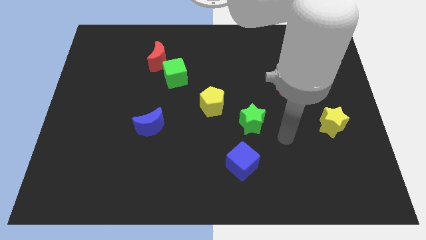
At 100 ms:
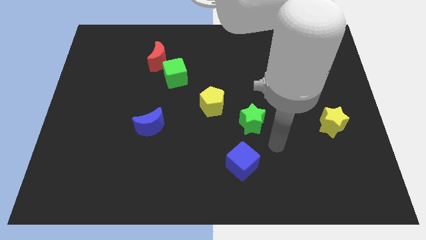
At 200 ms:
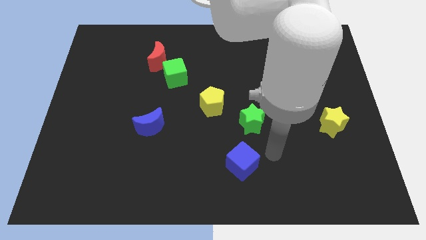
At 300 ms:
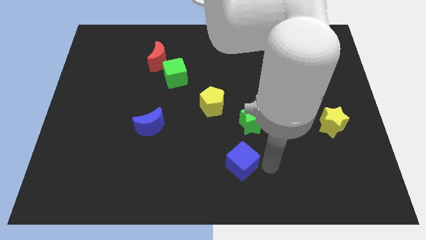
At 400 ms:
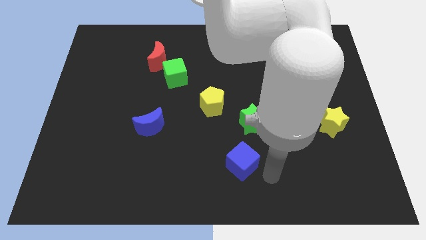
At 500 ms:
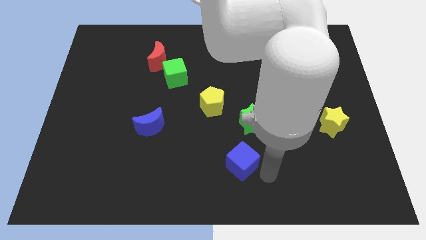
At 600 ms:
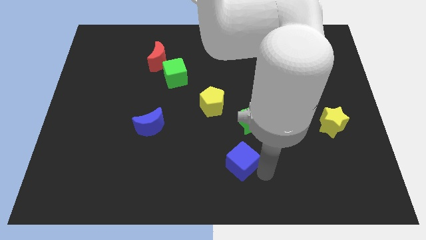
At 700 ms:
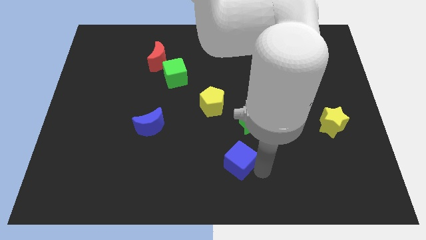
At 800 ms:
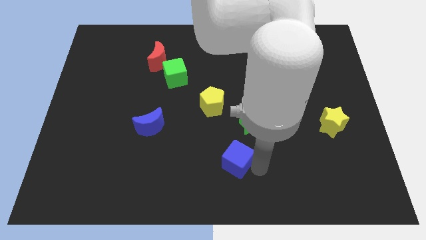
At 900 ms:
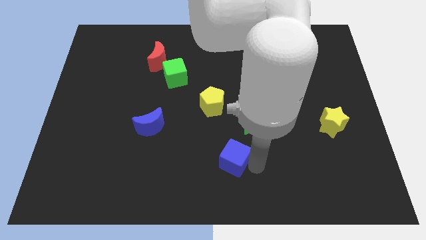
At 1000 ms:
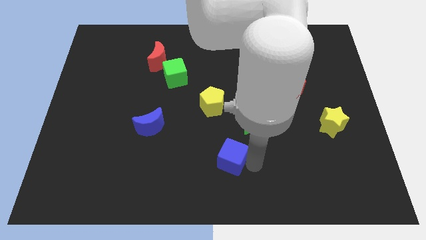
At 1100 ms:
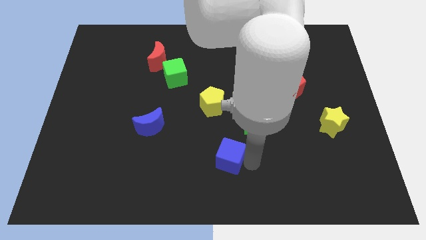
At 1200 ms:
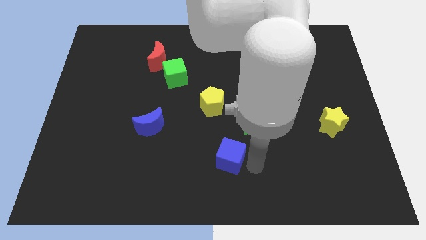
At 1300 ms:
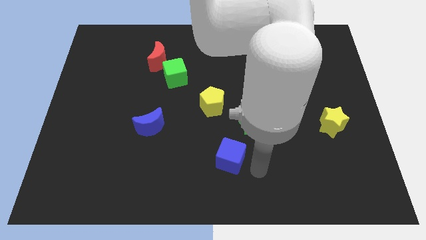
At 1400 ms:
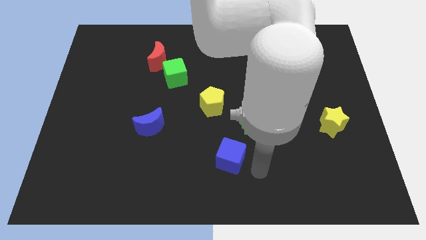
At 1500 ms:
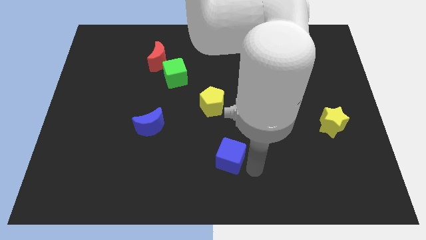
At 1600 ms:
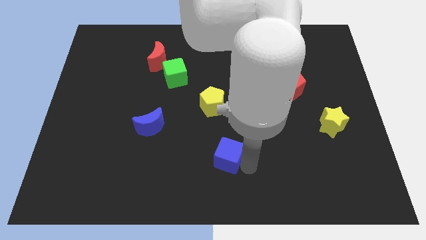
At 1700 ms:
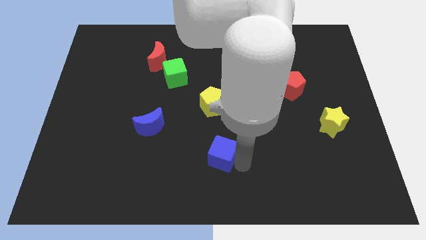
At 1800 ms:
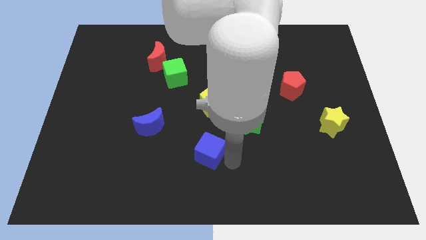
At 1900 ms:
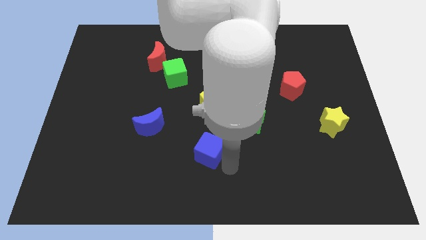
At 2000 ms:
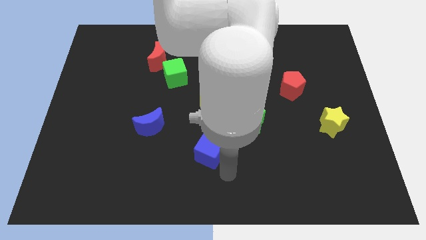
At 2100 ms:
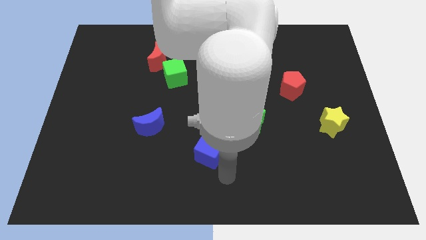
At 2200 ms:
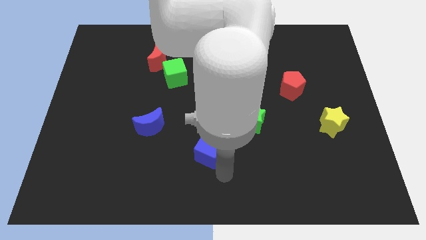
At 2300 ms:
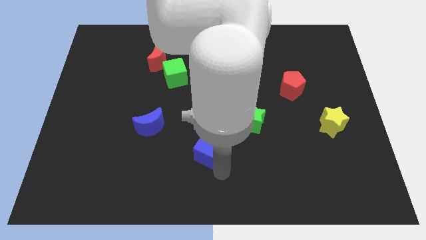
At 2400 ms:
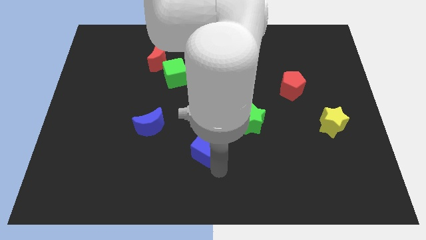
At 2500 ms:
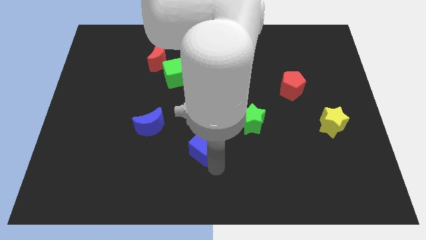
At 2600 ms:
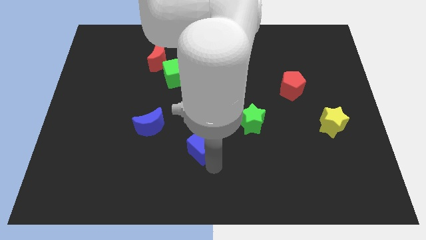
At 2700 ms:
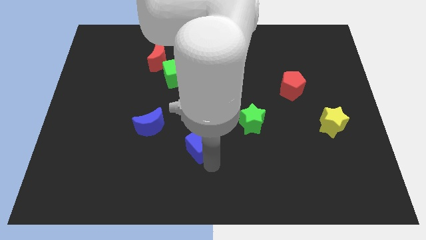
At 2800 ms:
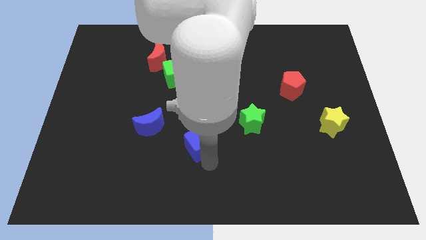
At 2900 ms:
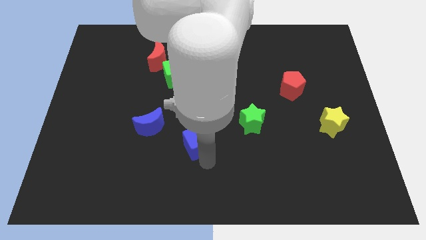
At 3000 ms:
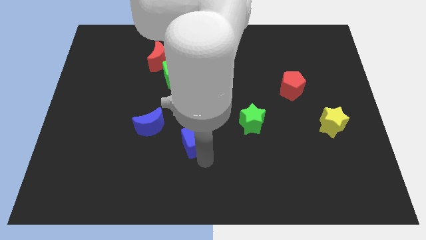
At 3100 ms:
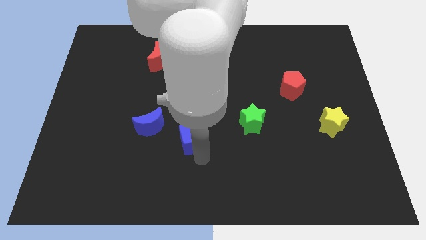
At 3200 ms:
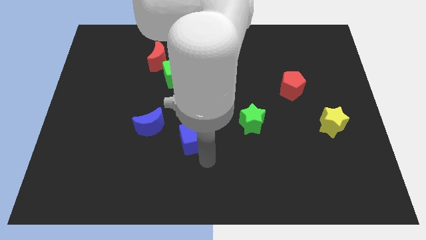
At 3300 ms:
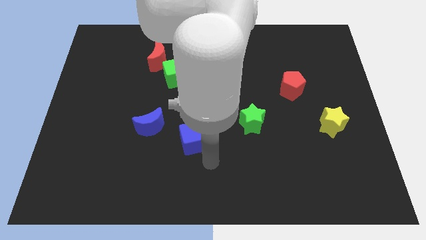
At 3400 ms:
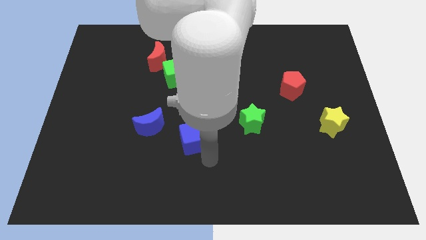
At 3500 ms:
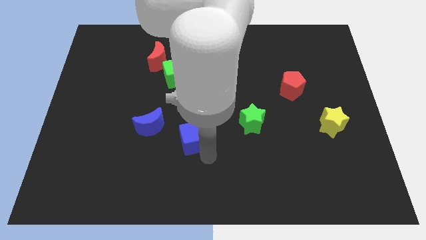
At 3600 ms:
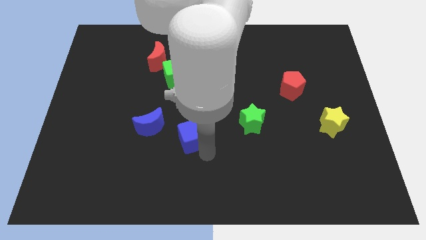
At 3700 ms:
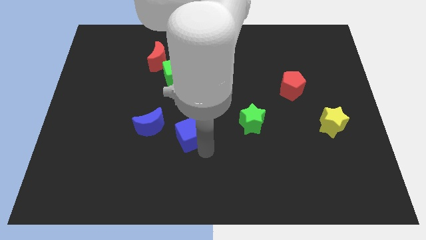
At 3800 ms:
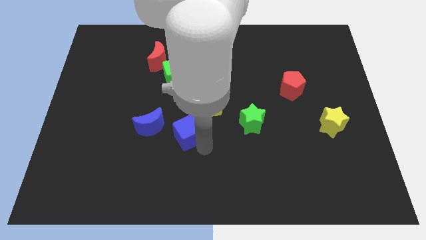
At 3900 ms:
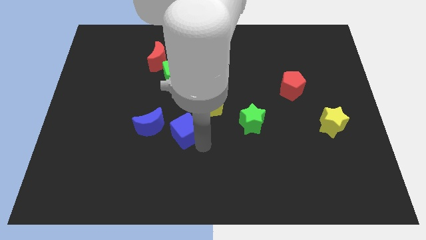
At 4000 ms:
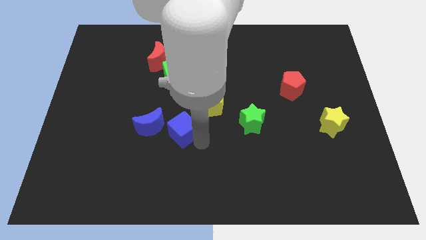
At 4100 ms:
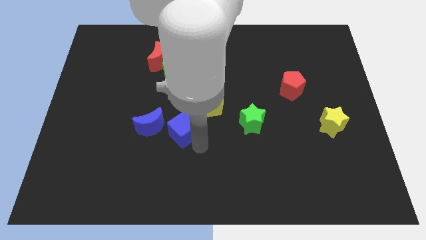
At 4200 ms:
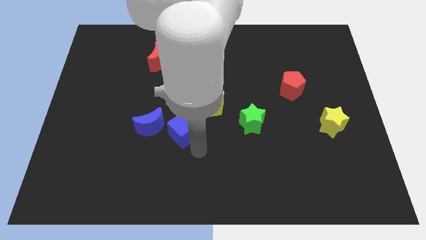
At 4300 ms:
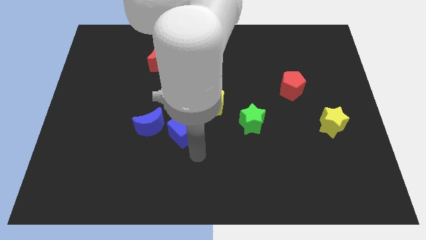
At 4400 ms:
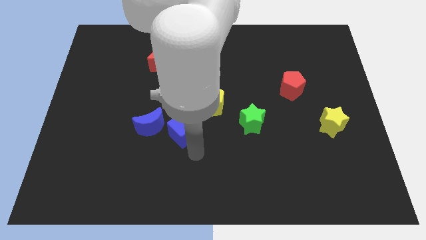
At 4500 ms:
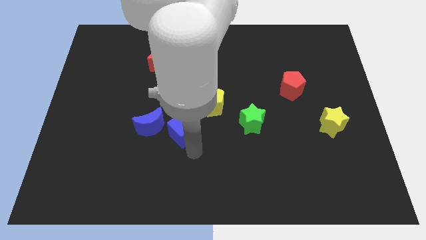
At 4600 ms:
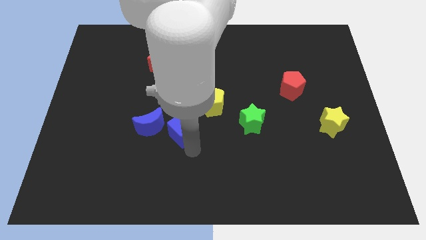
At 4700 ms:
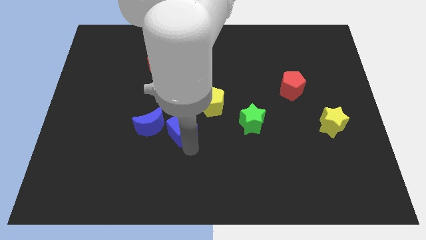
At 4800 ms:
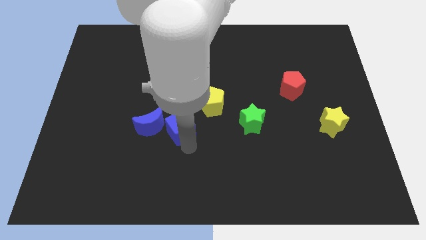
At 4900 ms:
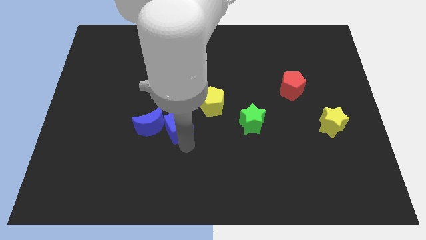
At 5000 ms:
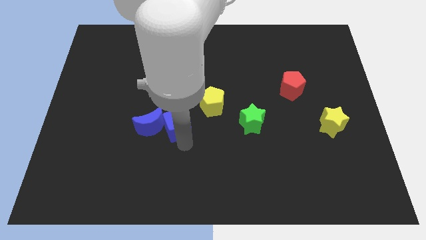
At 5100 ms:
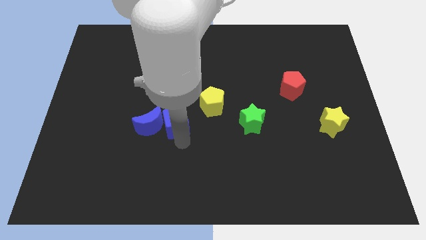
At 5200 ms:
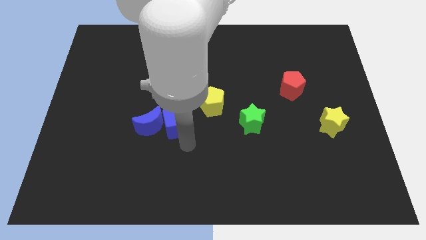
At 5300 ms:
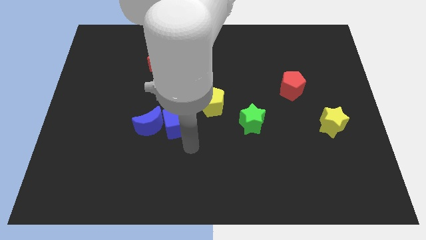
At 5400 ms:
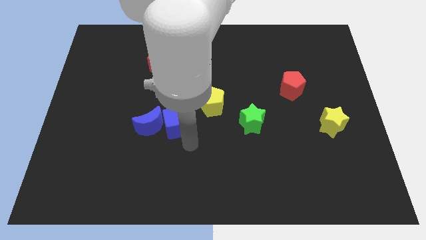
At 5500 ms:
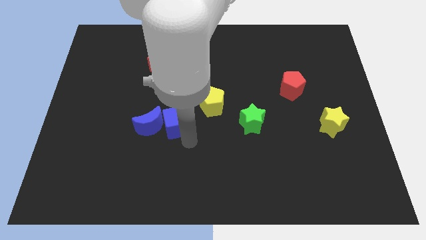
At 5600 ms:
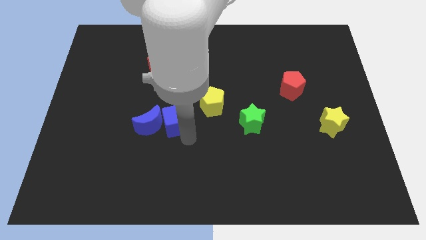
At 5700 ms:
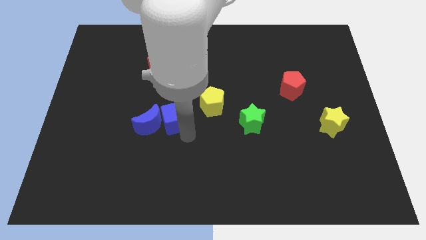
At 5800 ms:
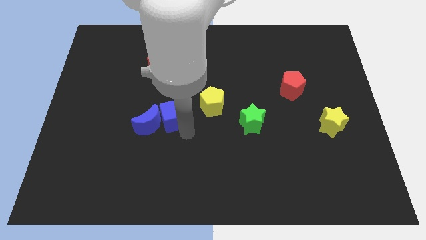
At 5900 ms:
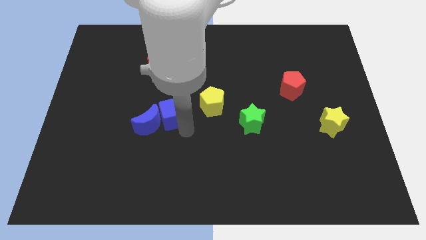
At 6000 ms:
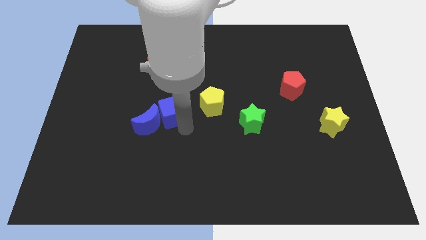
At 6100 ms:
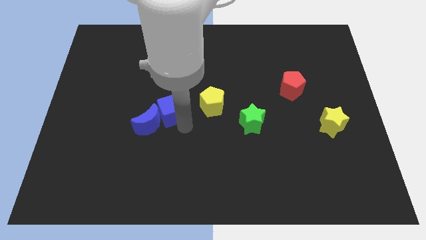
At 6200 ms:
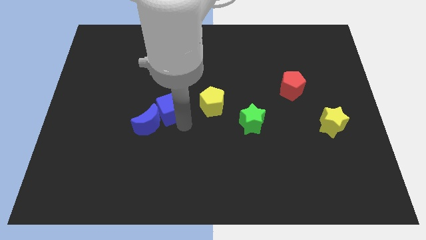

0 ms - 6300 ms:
slide the blue cube to the top side of the blue moon
